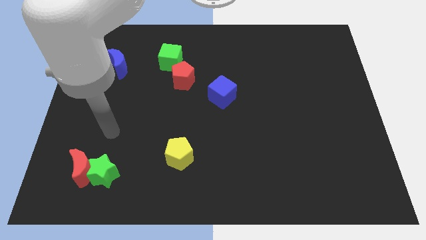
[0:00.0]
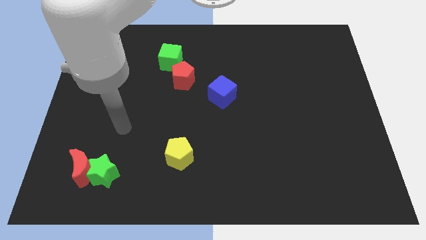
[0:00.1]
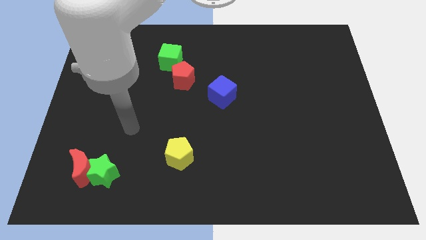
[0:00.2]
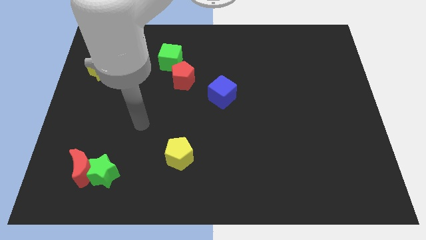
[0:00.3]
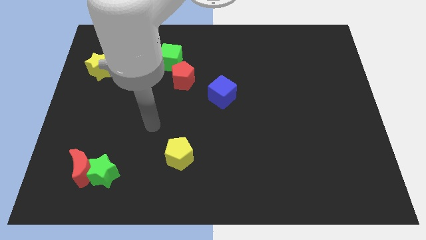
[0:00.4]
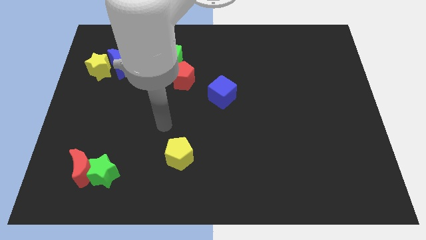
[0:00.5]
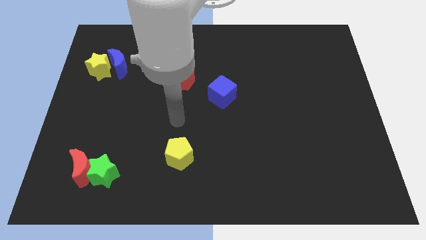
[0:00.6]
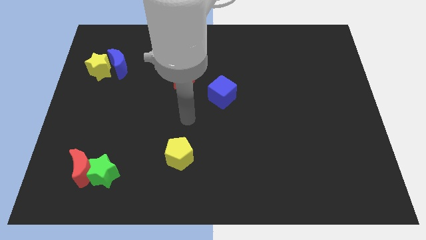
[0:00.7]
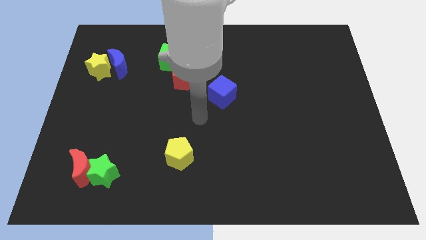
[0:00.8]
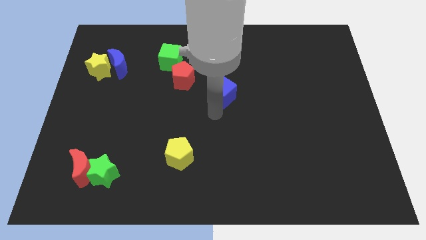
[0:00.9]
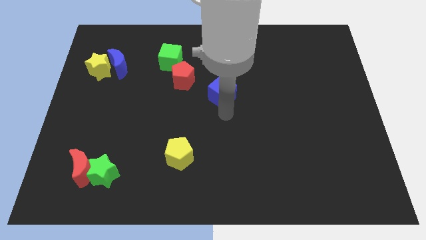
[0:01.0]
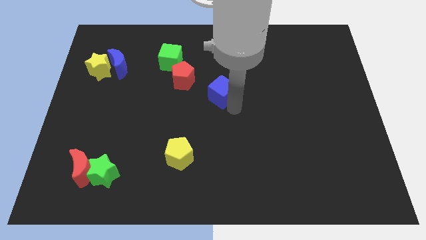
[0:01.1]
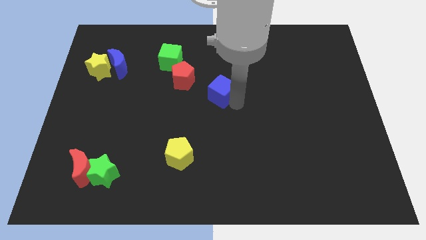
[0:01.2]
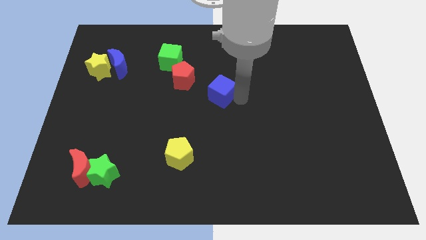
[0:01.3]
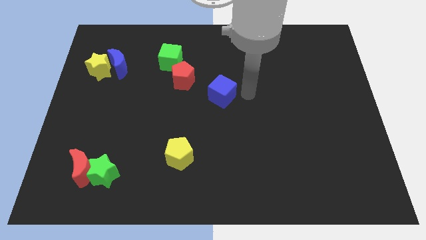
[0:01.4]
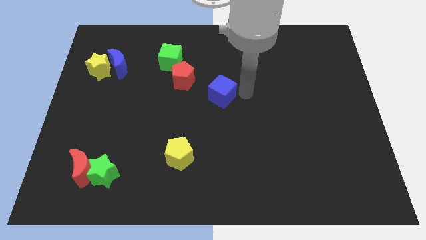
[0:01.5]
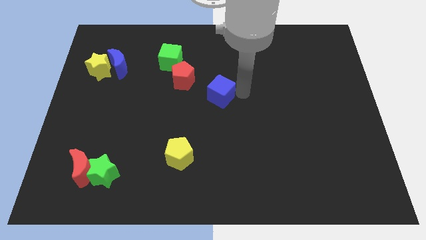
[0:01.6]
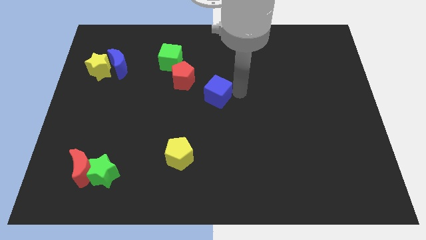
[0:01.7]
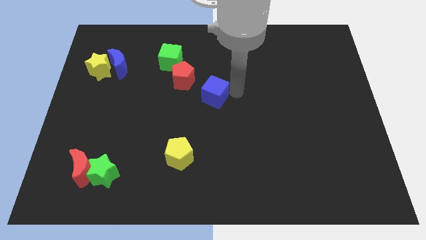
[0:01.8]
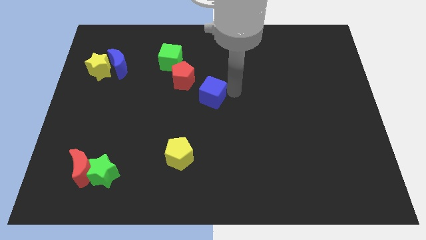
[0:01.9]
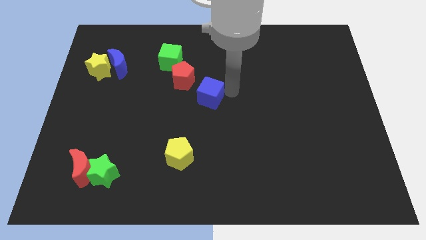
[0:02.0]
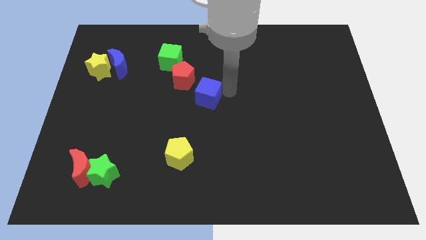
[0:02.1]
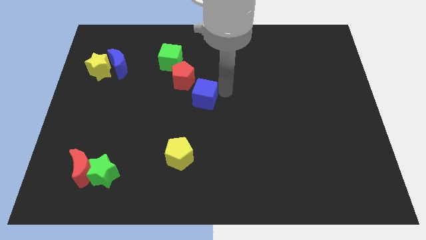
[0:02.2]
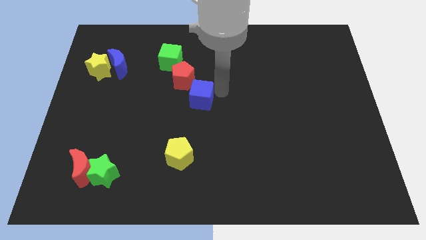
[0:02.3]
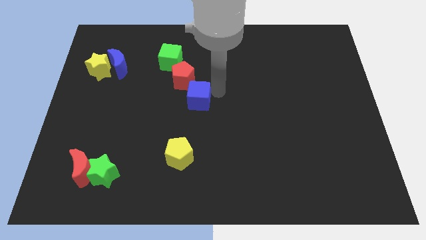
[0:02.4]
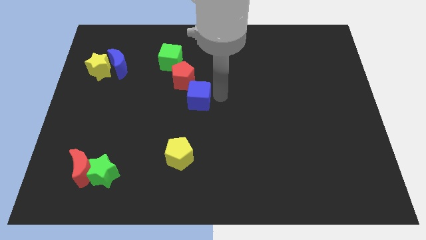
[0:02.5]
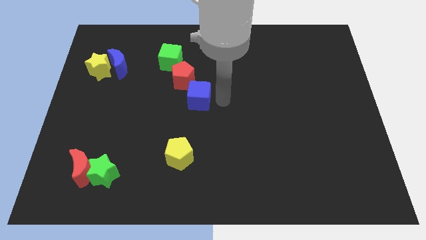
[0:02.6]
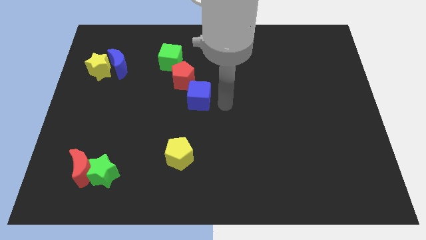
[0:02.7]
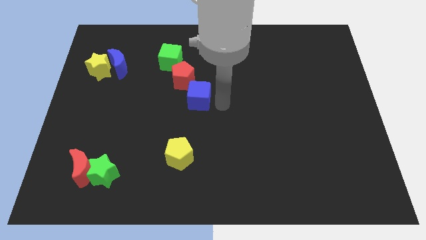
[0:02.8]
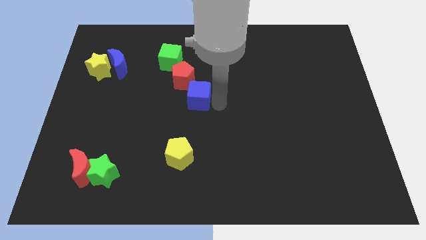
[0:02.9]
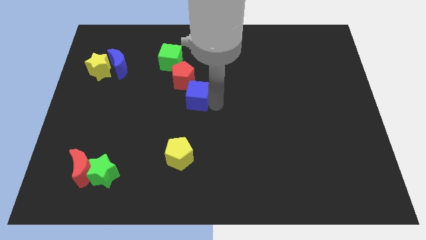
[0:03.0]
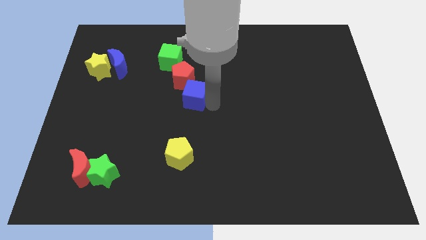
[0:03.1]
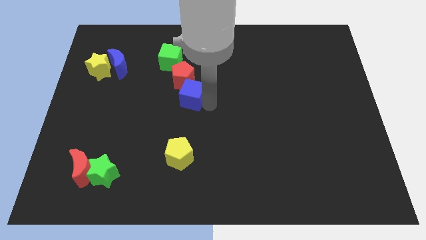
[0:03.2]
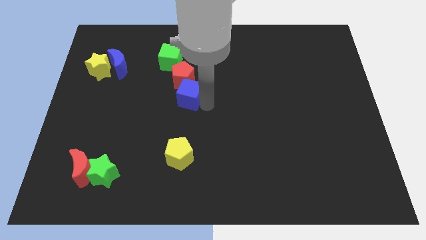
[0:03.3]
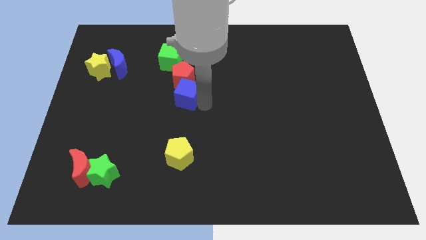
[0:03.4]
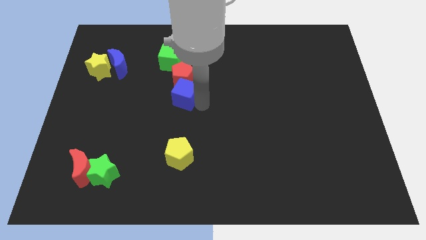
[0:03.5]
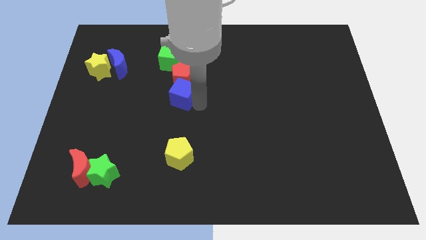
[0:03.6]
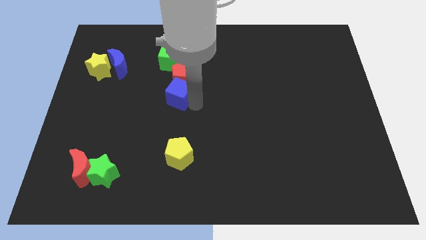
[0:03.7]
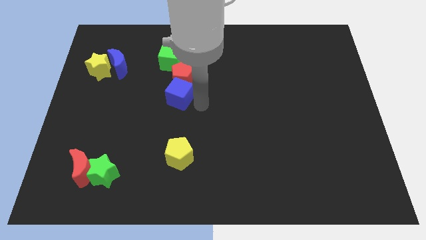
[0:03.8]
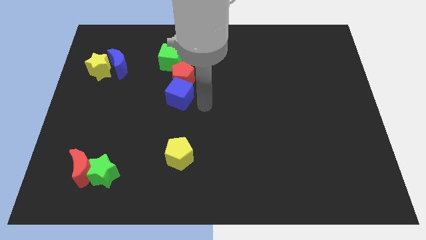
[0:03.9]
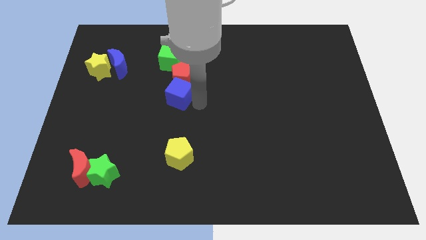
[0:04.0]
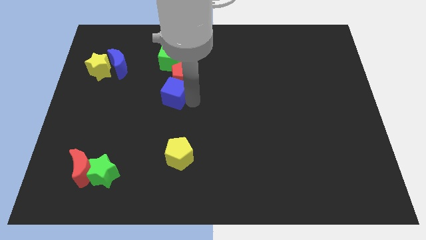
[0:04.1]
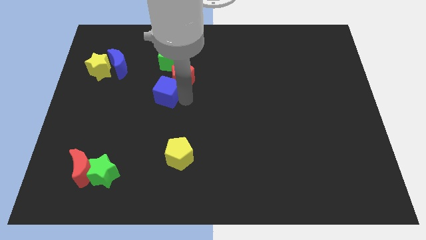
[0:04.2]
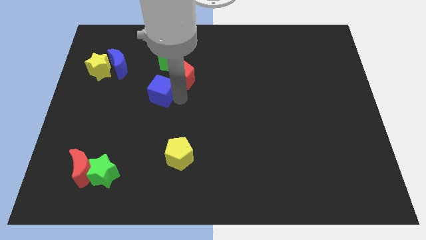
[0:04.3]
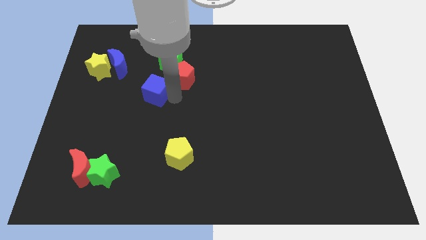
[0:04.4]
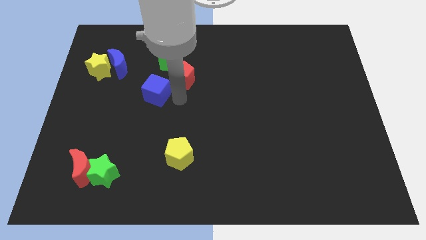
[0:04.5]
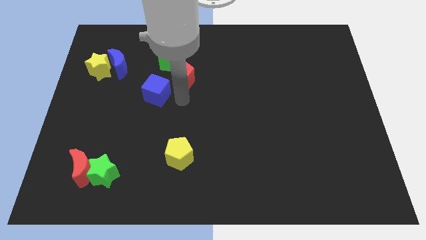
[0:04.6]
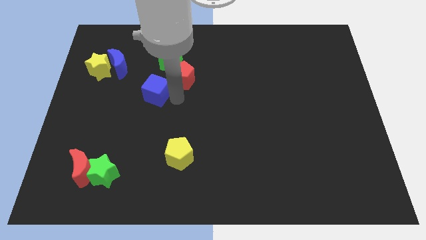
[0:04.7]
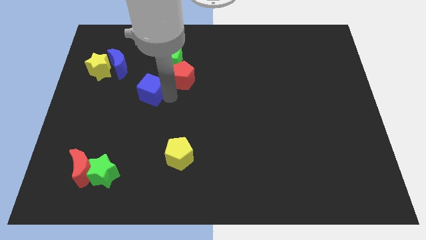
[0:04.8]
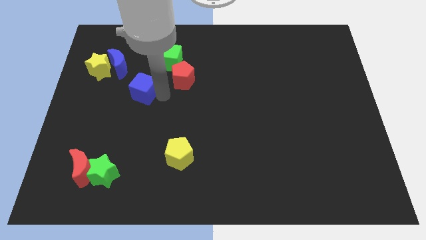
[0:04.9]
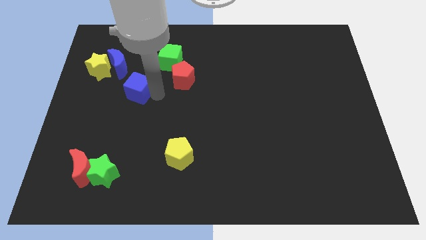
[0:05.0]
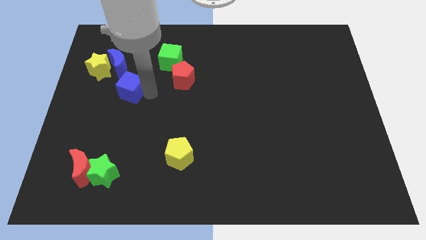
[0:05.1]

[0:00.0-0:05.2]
move the blue cube diagonally down and to the right of the yellow star

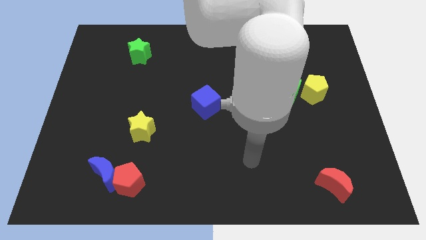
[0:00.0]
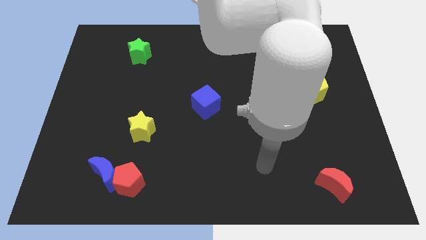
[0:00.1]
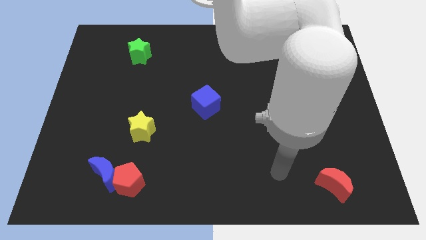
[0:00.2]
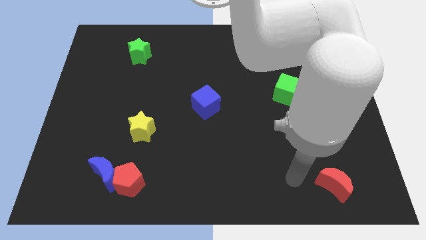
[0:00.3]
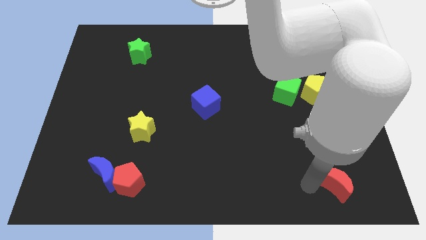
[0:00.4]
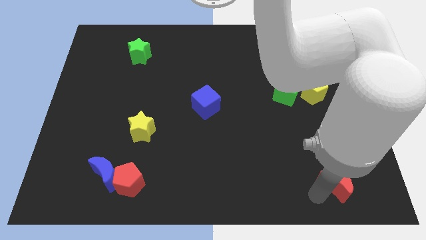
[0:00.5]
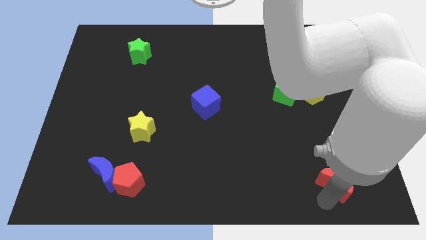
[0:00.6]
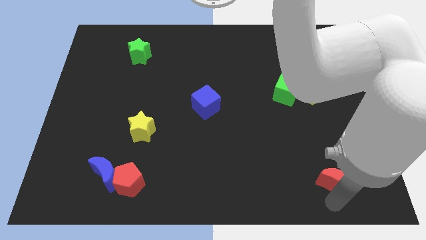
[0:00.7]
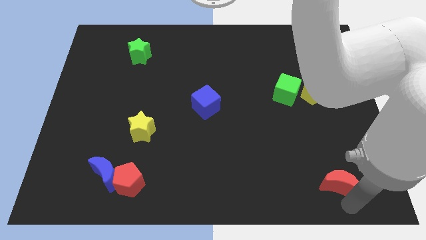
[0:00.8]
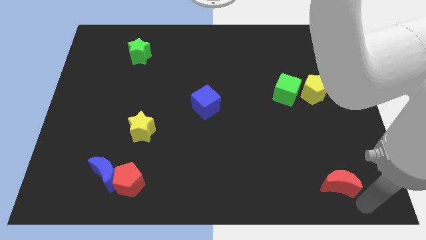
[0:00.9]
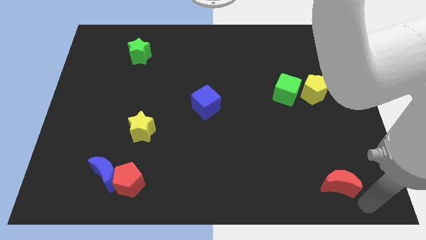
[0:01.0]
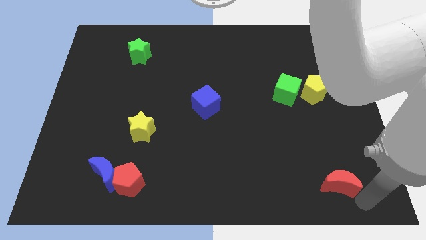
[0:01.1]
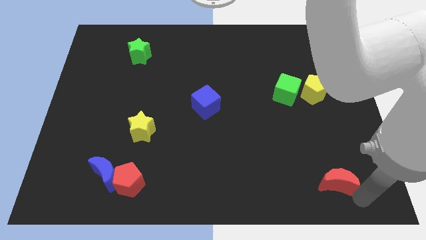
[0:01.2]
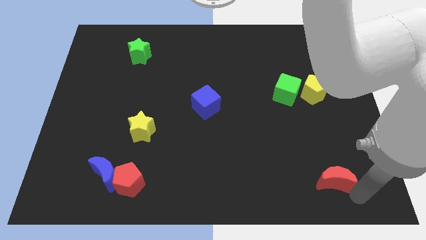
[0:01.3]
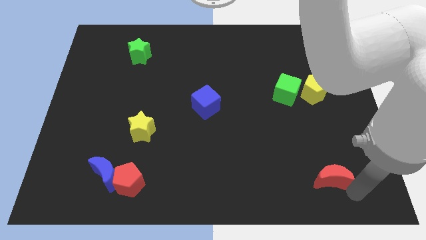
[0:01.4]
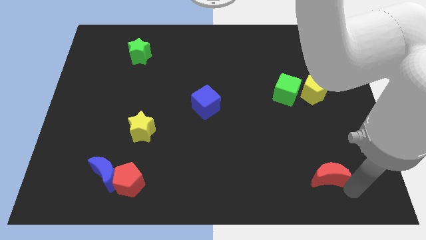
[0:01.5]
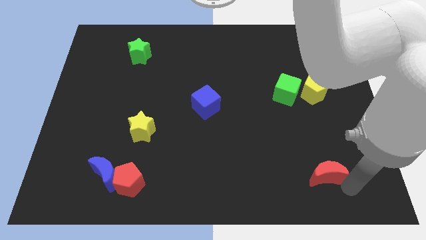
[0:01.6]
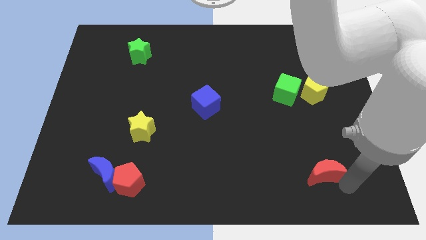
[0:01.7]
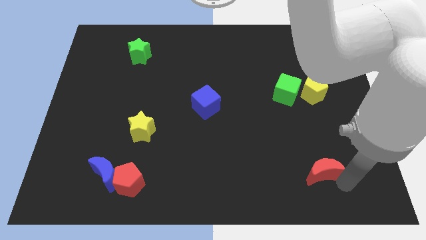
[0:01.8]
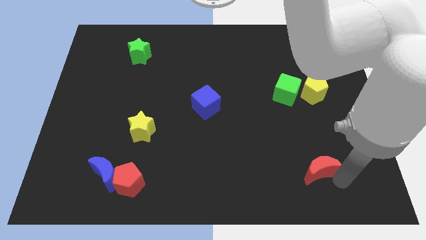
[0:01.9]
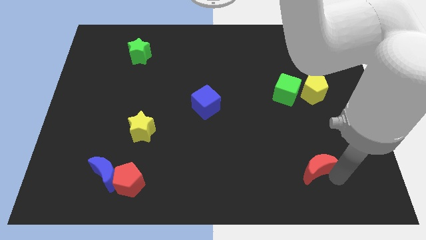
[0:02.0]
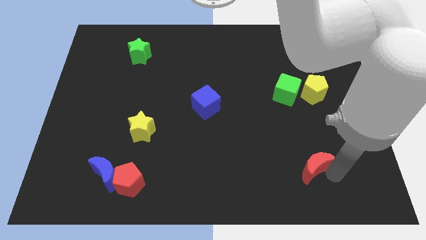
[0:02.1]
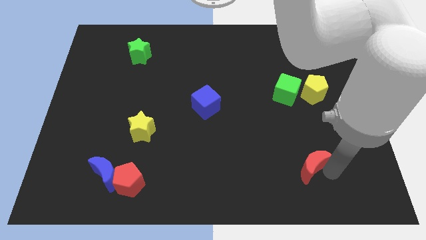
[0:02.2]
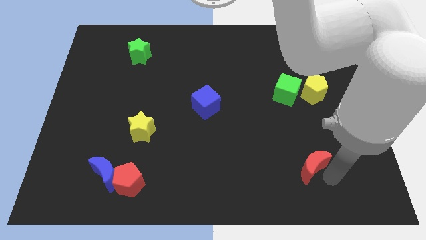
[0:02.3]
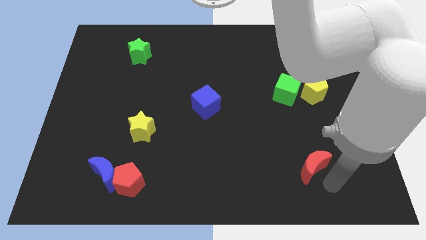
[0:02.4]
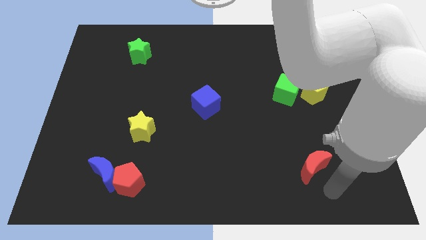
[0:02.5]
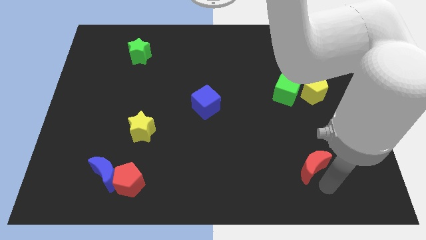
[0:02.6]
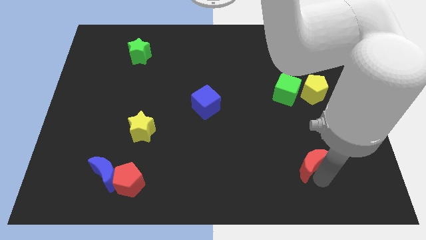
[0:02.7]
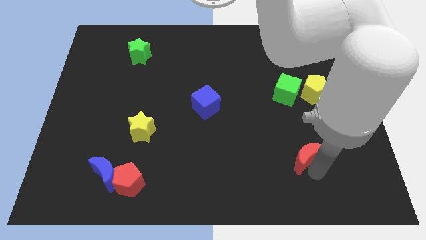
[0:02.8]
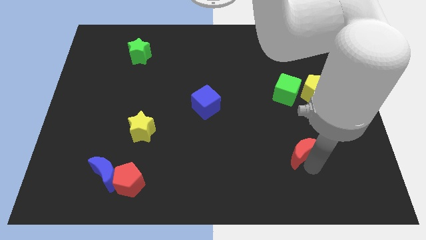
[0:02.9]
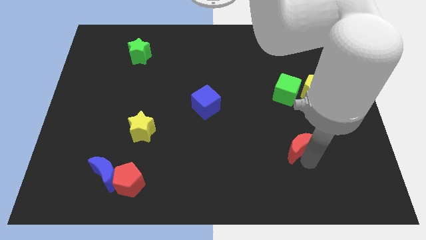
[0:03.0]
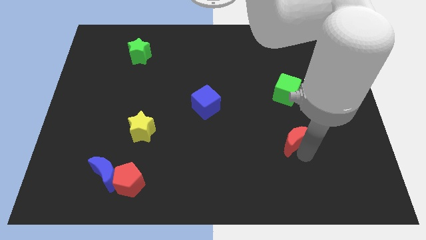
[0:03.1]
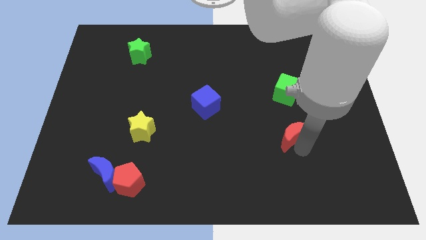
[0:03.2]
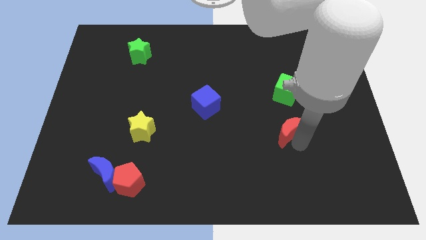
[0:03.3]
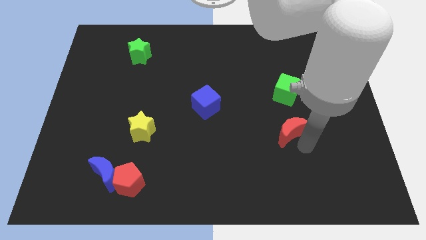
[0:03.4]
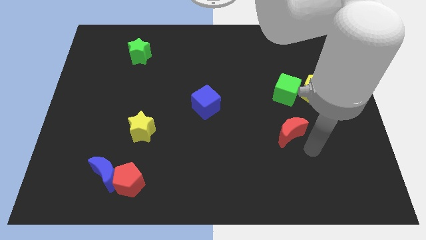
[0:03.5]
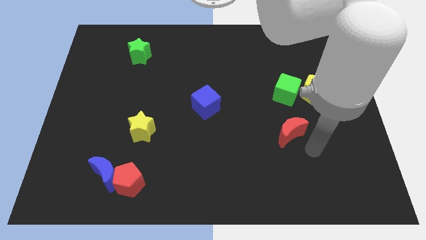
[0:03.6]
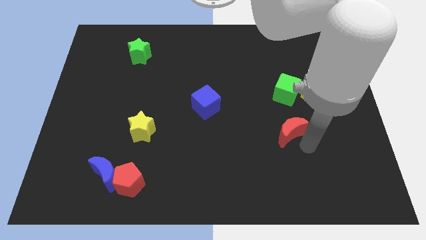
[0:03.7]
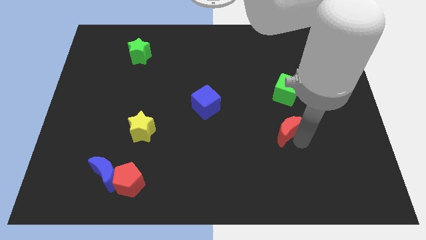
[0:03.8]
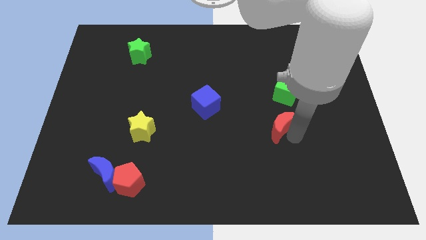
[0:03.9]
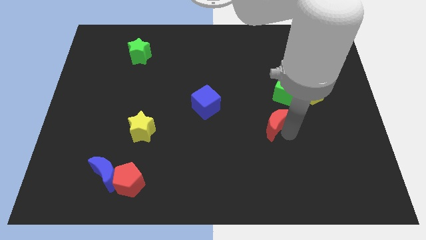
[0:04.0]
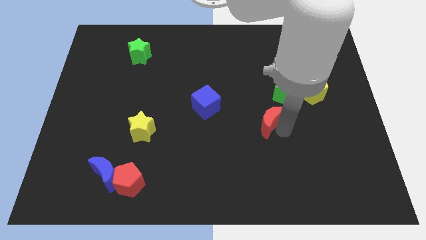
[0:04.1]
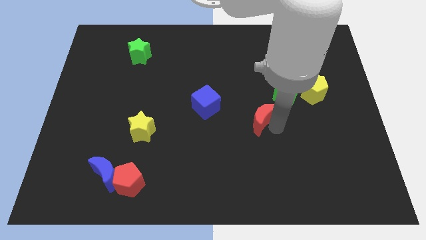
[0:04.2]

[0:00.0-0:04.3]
move the red moon to the right side of the blue cube
